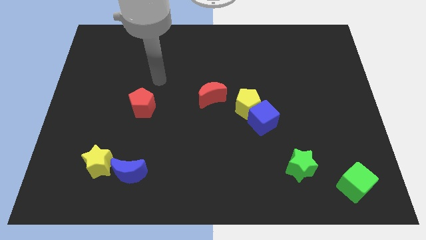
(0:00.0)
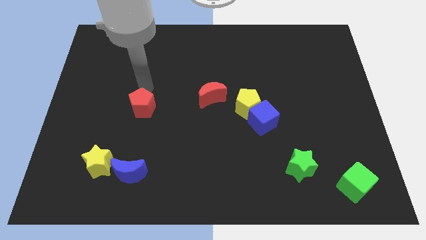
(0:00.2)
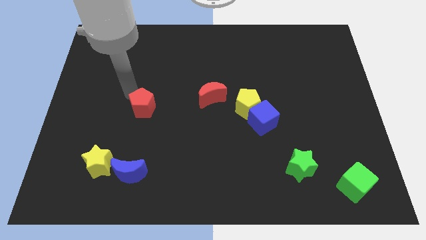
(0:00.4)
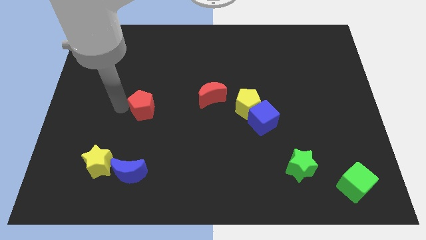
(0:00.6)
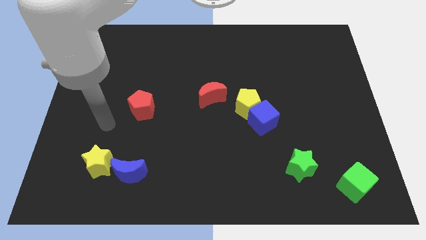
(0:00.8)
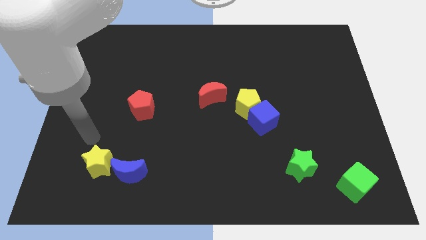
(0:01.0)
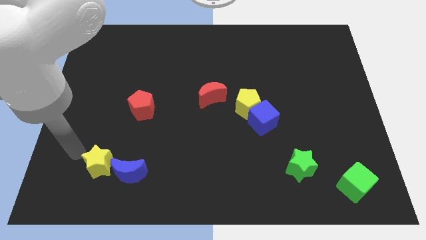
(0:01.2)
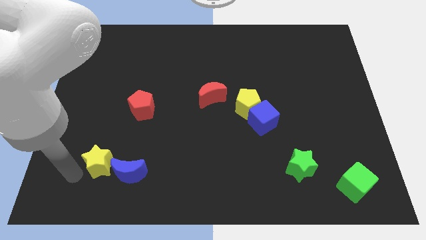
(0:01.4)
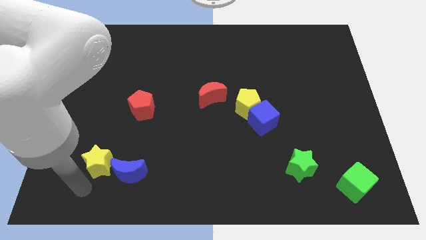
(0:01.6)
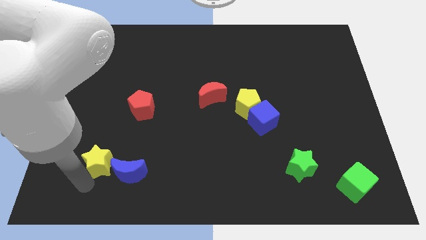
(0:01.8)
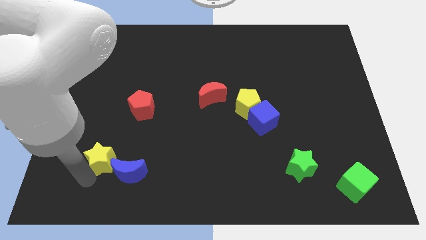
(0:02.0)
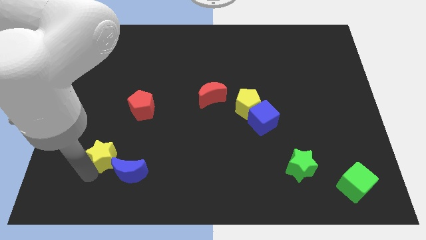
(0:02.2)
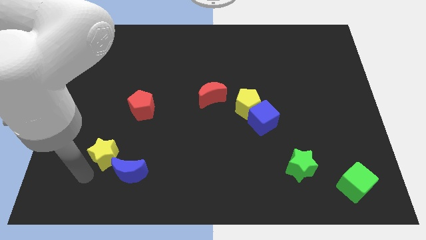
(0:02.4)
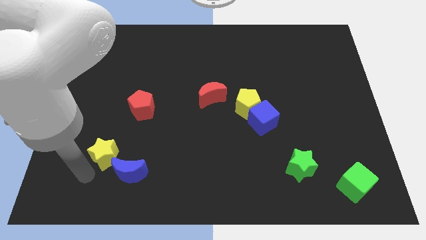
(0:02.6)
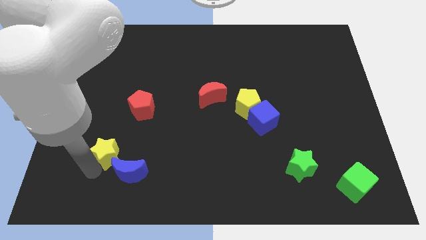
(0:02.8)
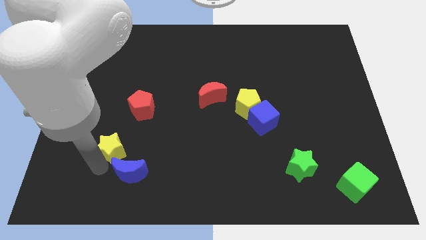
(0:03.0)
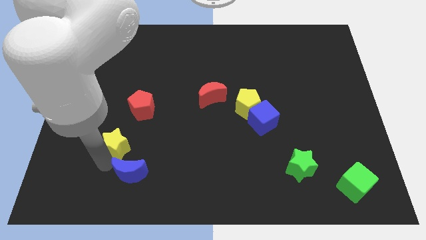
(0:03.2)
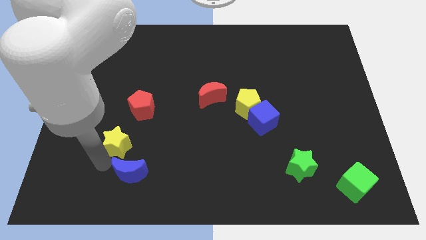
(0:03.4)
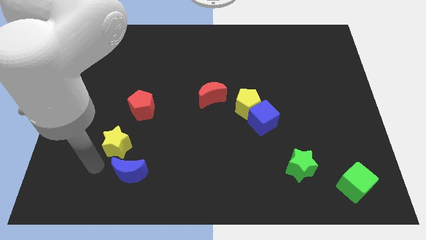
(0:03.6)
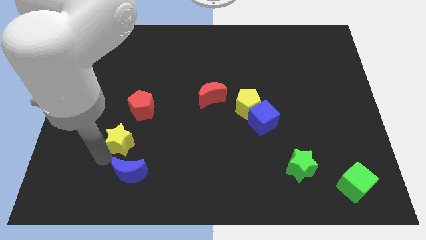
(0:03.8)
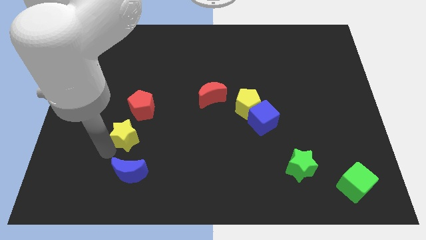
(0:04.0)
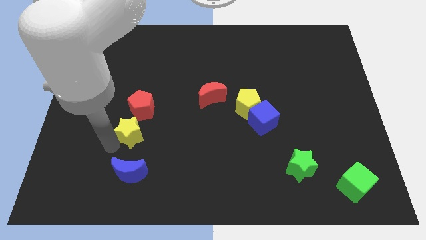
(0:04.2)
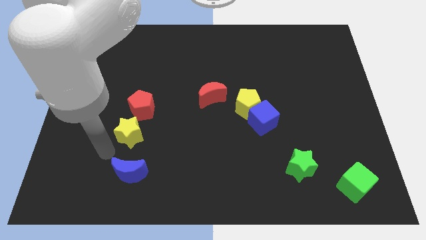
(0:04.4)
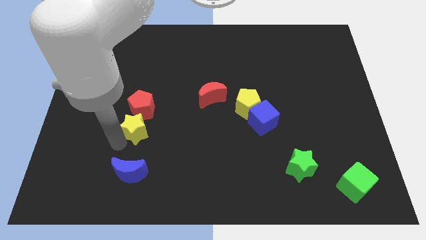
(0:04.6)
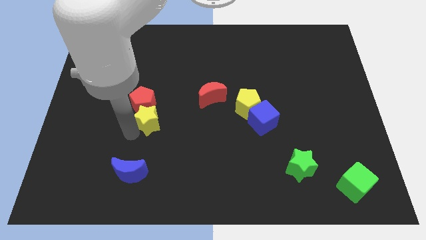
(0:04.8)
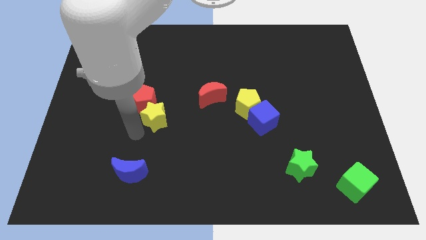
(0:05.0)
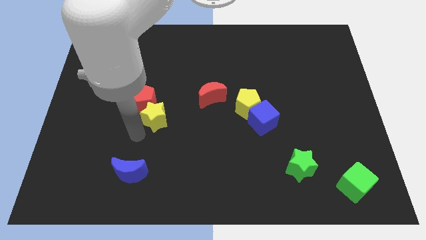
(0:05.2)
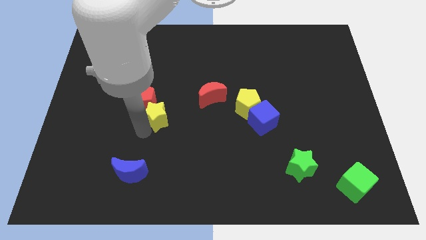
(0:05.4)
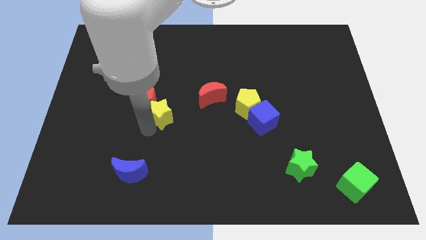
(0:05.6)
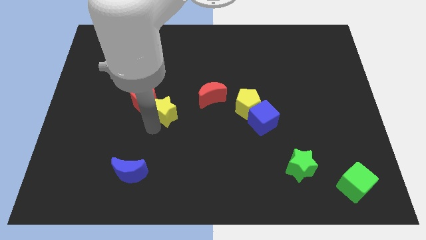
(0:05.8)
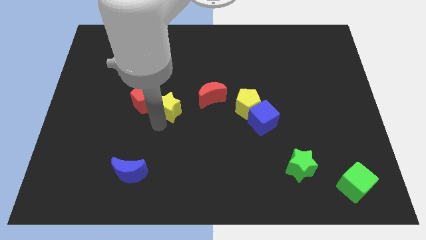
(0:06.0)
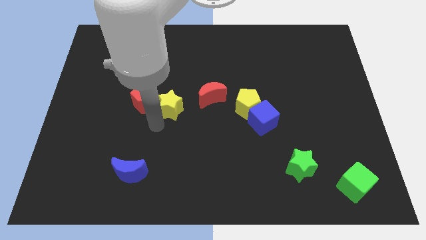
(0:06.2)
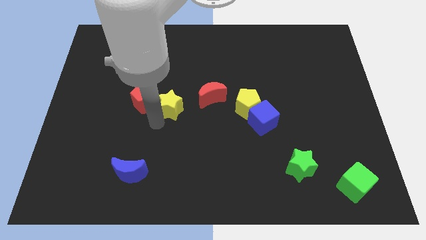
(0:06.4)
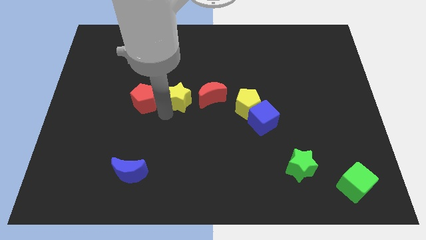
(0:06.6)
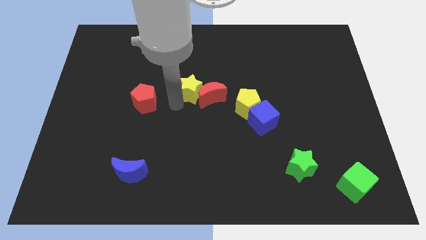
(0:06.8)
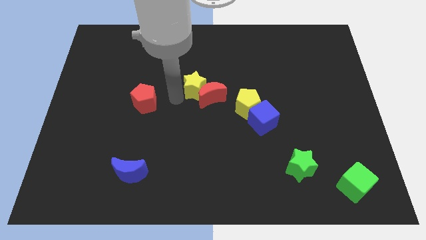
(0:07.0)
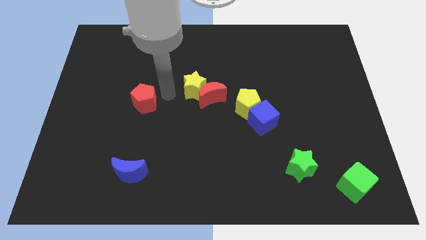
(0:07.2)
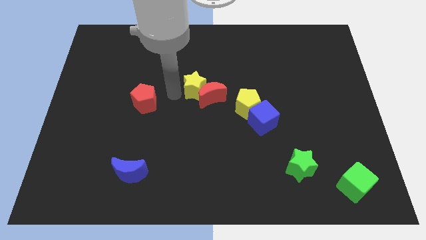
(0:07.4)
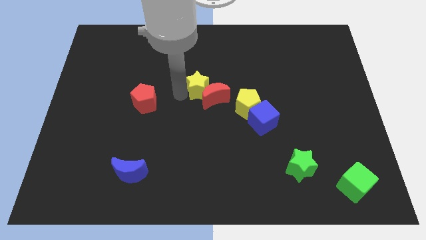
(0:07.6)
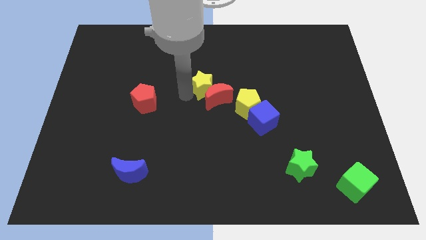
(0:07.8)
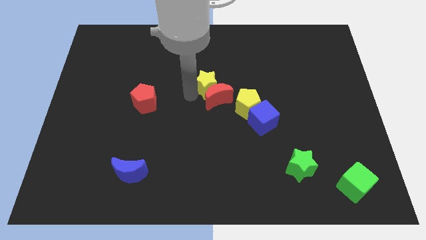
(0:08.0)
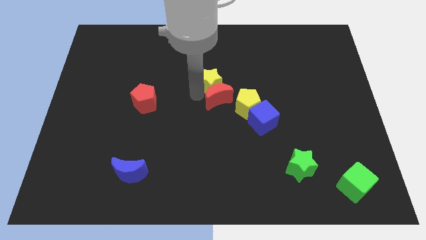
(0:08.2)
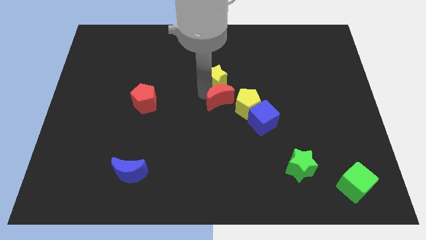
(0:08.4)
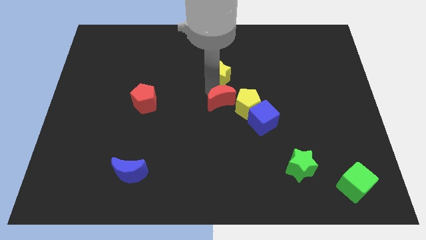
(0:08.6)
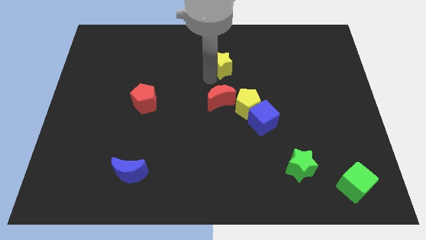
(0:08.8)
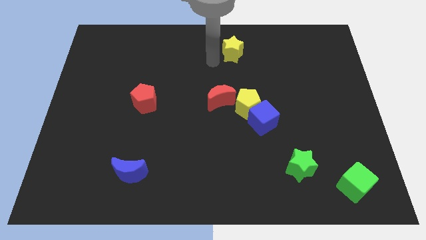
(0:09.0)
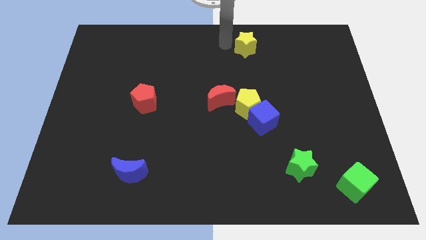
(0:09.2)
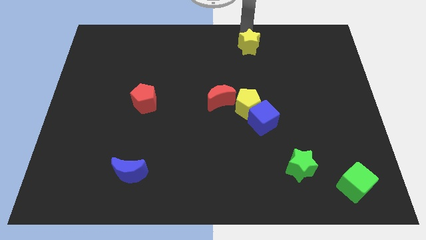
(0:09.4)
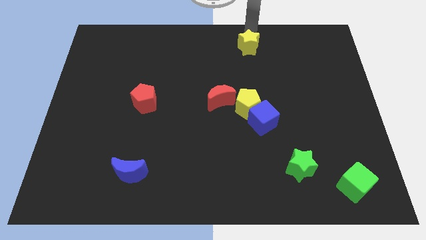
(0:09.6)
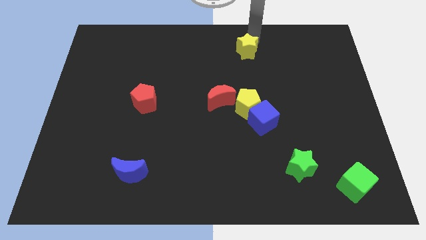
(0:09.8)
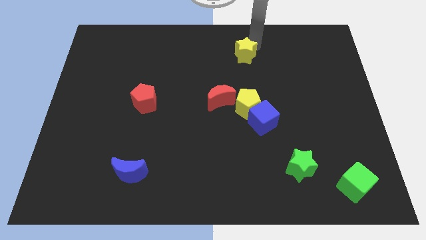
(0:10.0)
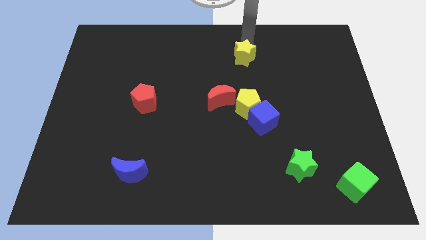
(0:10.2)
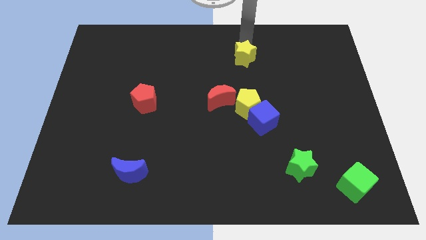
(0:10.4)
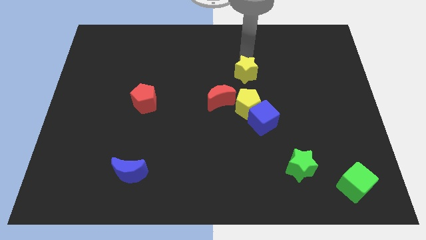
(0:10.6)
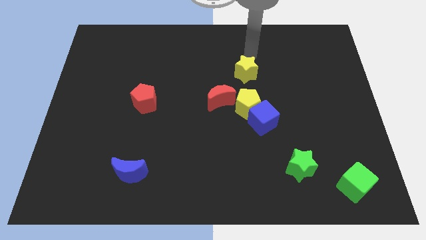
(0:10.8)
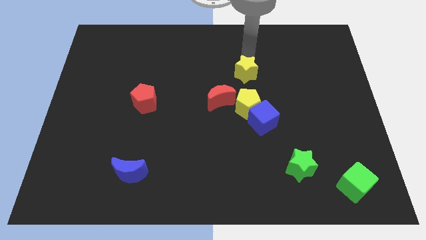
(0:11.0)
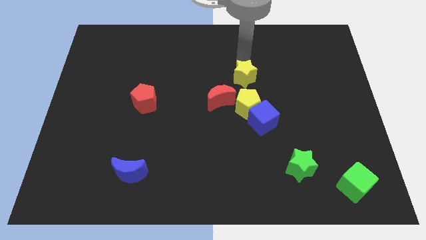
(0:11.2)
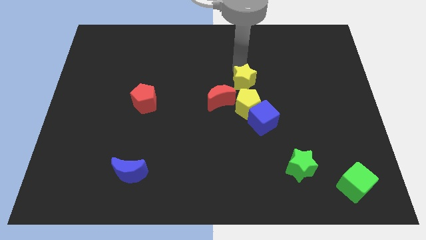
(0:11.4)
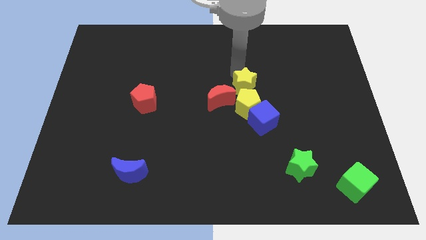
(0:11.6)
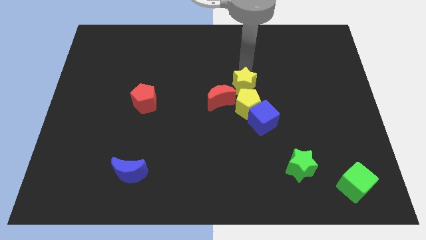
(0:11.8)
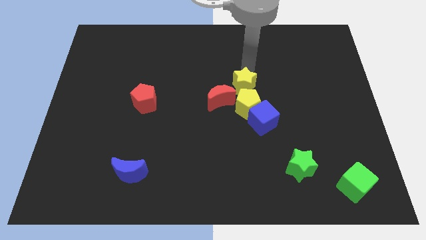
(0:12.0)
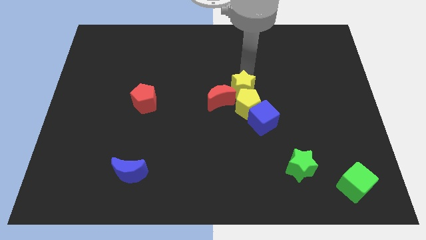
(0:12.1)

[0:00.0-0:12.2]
put the yellow star to the top left side of the blue cube

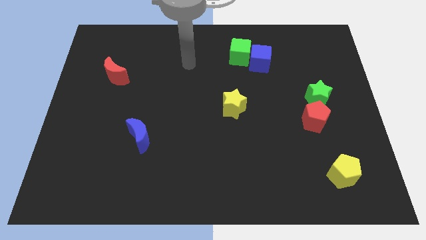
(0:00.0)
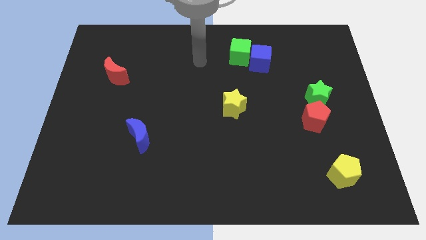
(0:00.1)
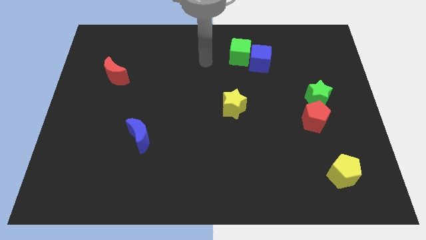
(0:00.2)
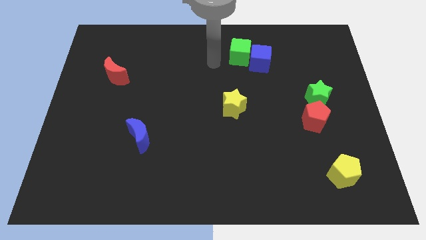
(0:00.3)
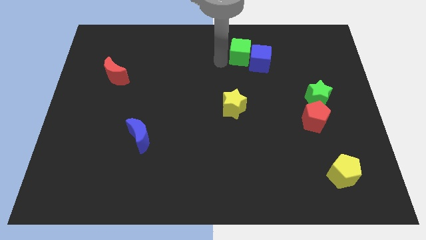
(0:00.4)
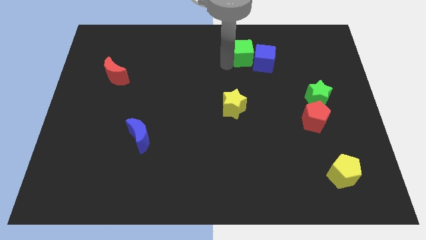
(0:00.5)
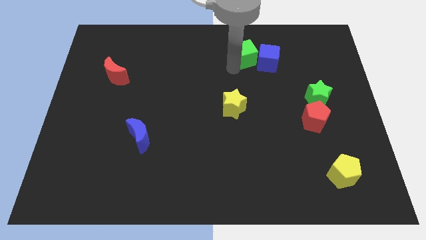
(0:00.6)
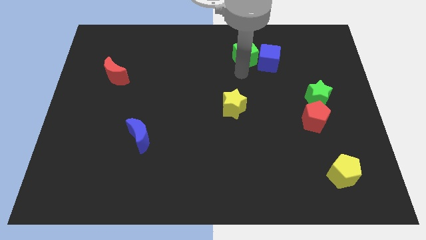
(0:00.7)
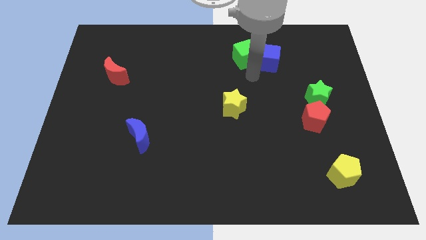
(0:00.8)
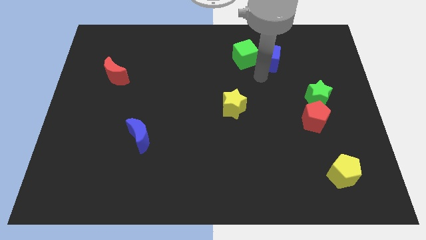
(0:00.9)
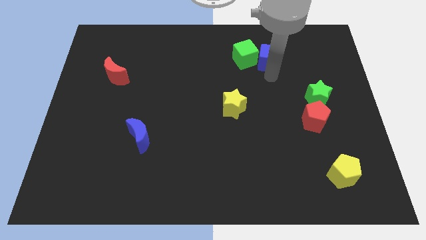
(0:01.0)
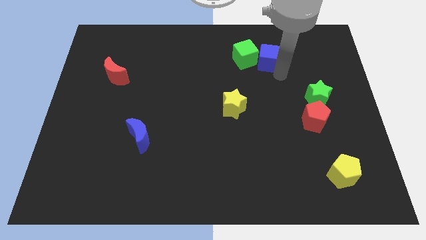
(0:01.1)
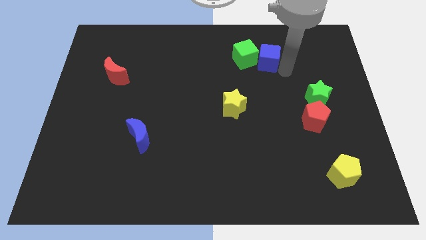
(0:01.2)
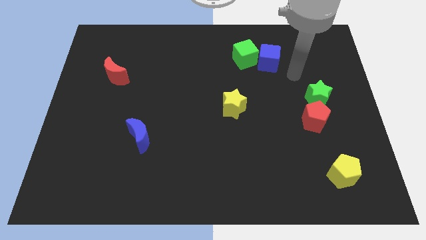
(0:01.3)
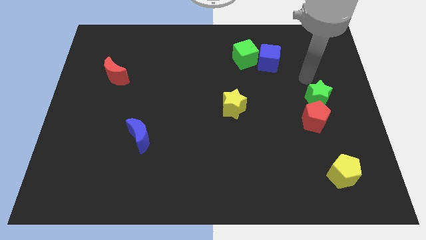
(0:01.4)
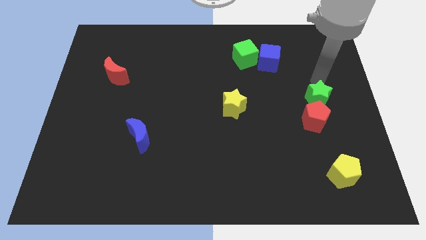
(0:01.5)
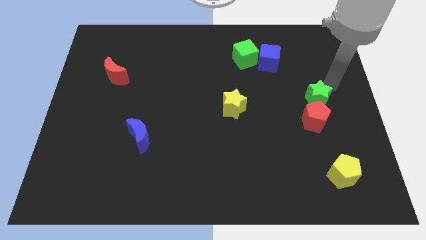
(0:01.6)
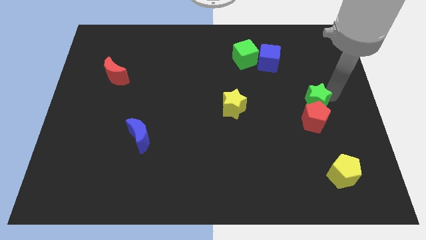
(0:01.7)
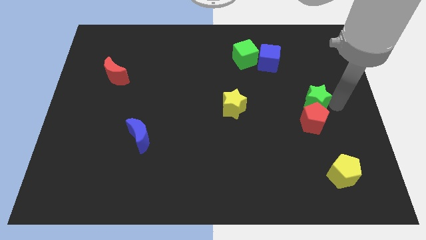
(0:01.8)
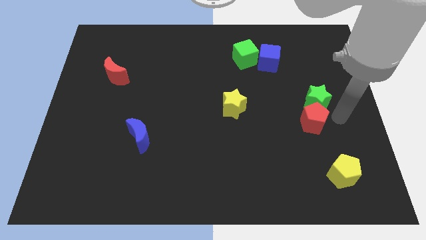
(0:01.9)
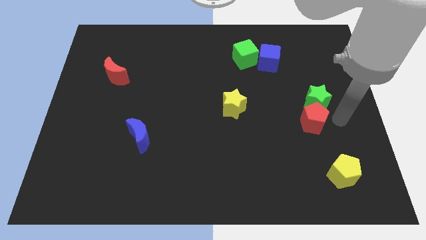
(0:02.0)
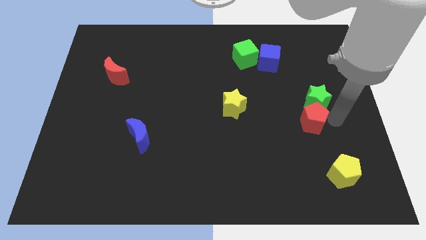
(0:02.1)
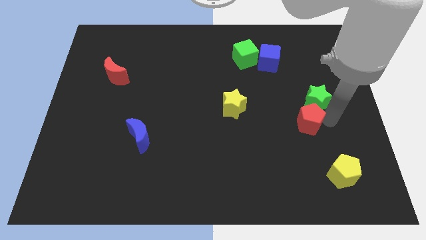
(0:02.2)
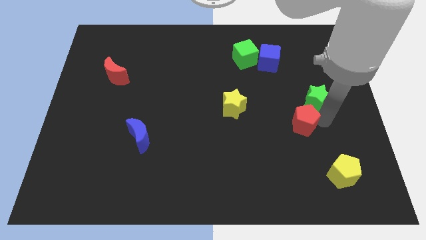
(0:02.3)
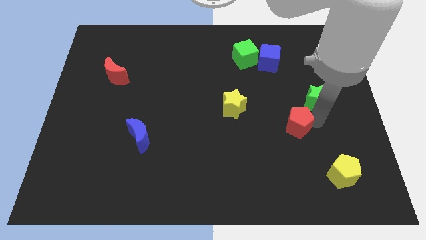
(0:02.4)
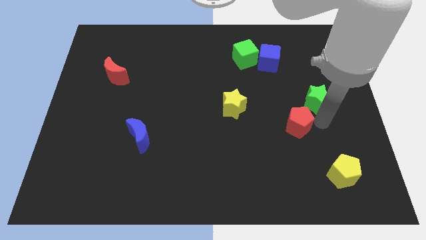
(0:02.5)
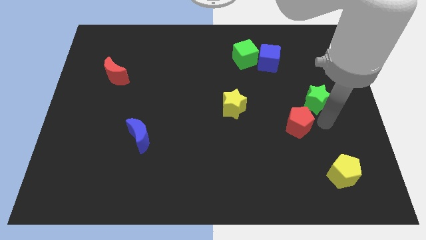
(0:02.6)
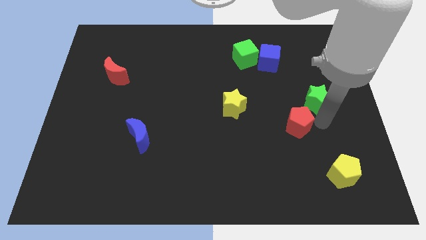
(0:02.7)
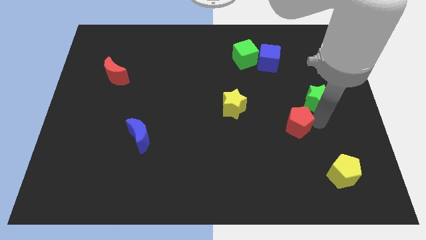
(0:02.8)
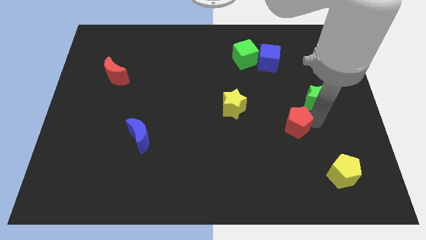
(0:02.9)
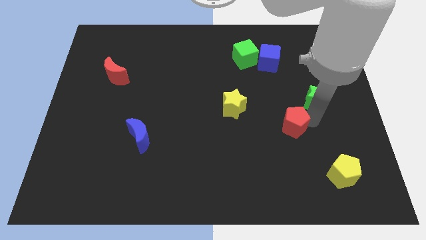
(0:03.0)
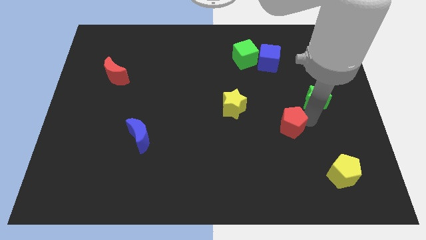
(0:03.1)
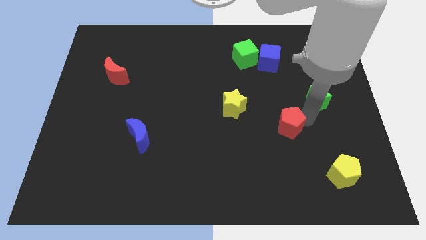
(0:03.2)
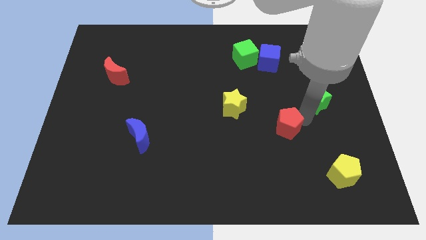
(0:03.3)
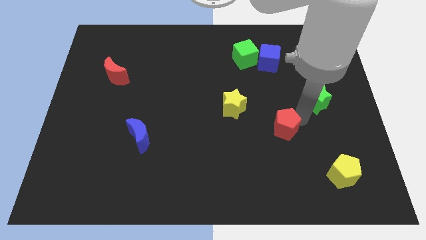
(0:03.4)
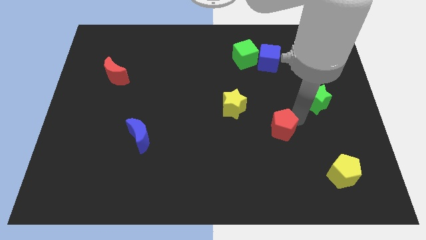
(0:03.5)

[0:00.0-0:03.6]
slide the red pentagon diagonally down and to the right of the yellow star
